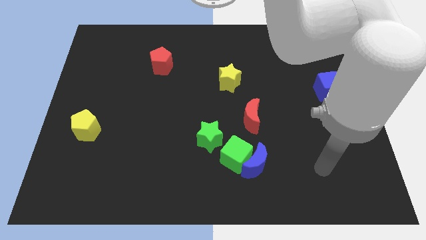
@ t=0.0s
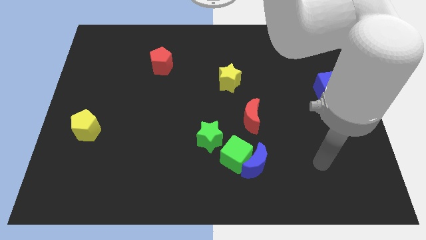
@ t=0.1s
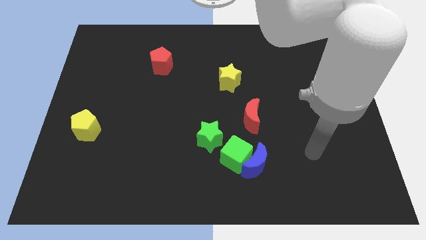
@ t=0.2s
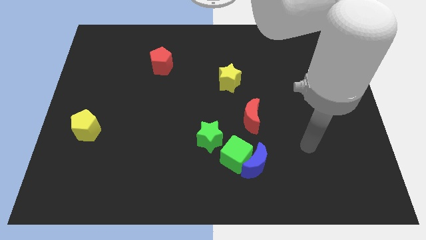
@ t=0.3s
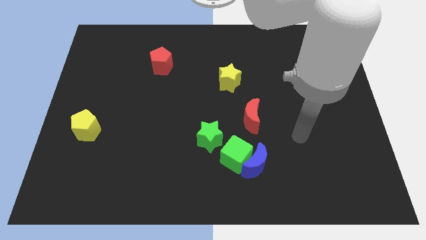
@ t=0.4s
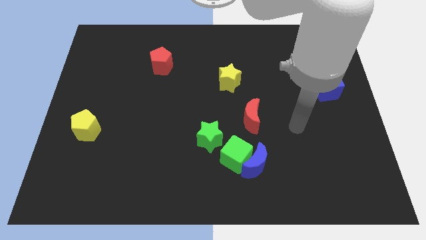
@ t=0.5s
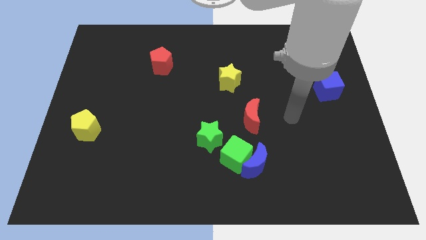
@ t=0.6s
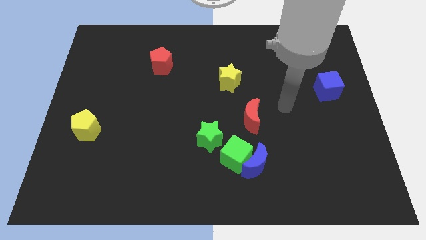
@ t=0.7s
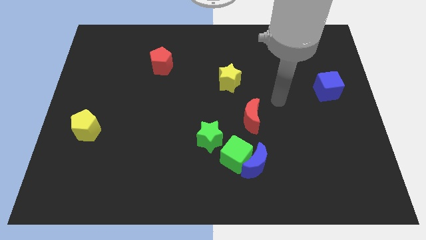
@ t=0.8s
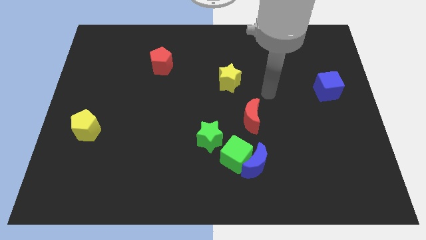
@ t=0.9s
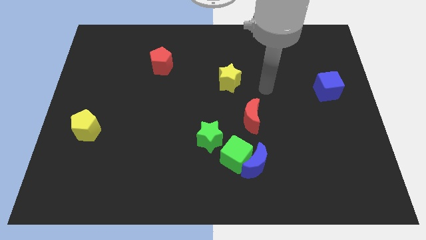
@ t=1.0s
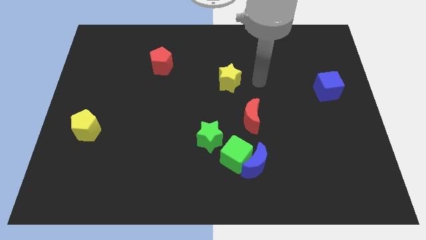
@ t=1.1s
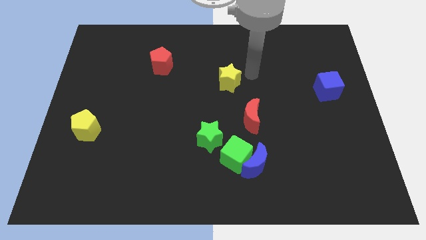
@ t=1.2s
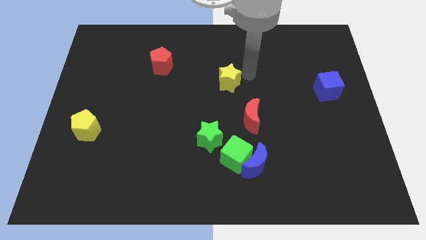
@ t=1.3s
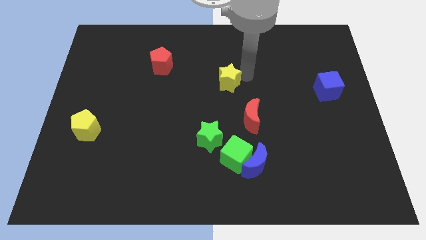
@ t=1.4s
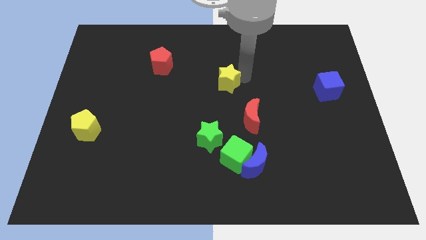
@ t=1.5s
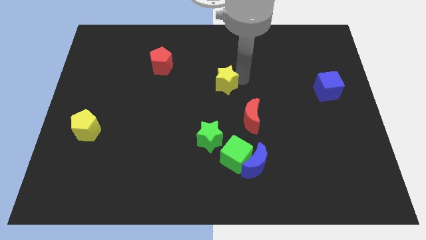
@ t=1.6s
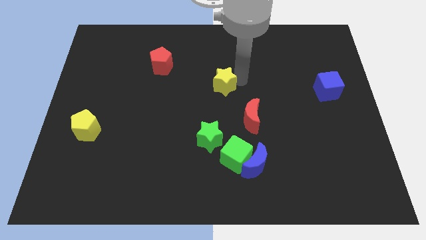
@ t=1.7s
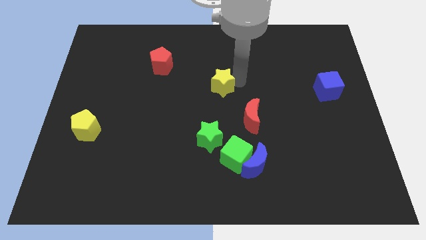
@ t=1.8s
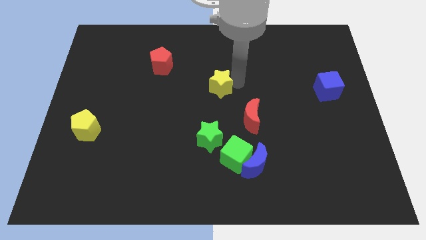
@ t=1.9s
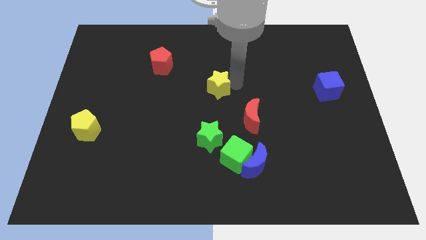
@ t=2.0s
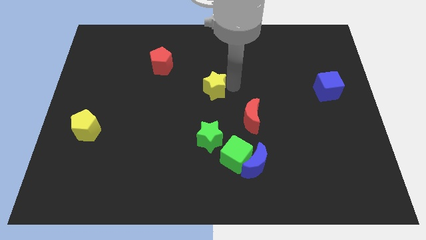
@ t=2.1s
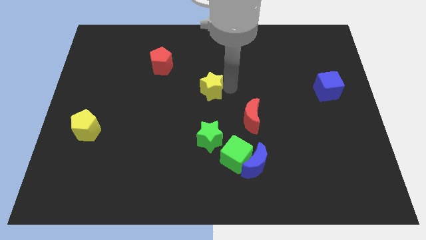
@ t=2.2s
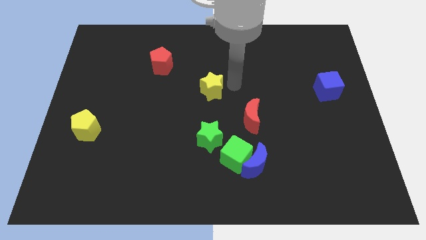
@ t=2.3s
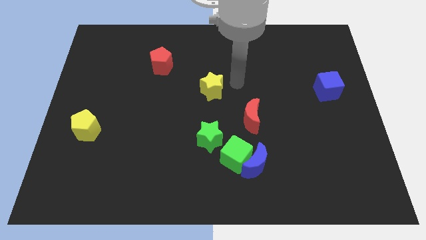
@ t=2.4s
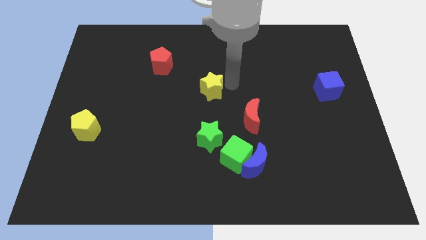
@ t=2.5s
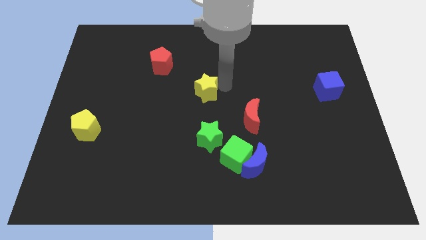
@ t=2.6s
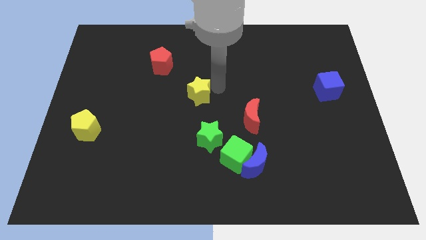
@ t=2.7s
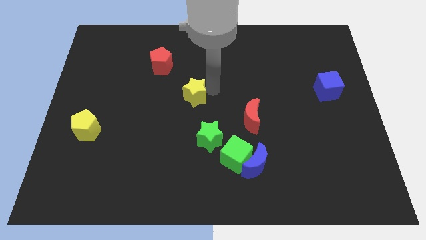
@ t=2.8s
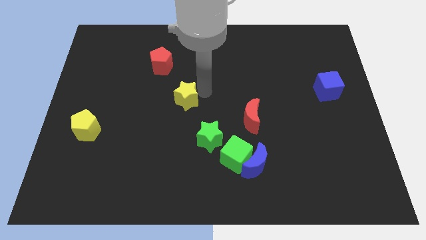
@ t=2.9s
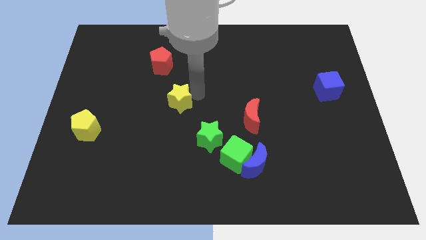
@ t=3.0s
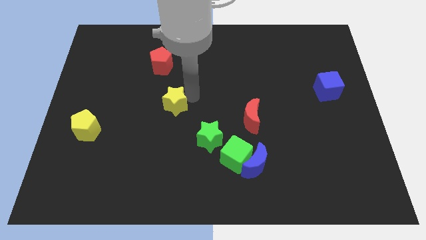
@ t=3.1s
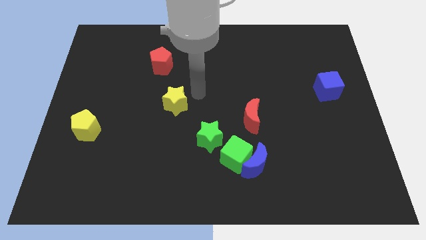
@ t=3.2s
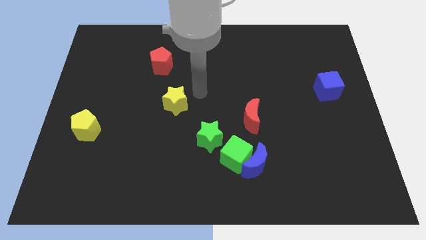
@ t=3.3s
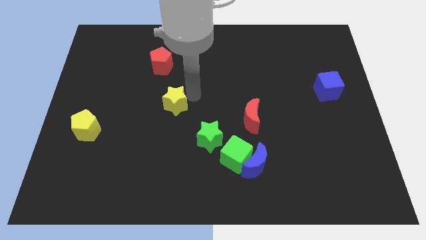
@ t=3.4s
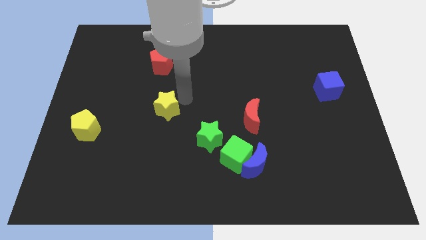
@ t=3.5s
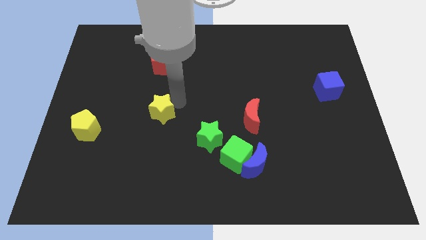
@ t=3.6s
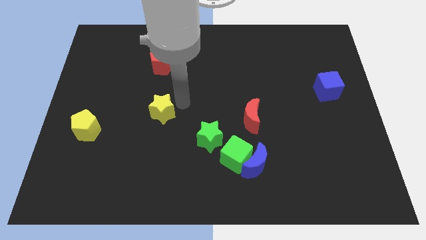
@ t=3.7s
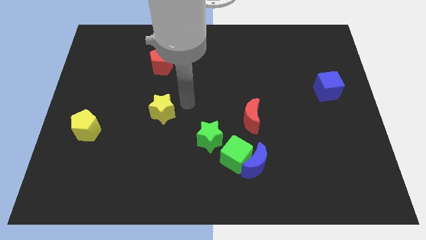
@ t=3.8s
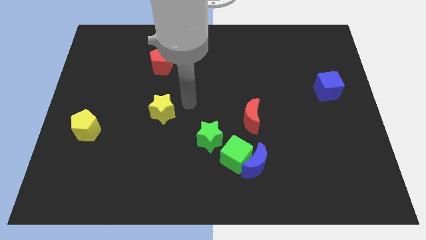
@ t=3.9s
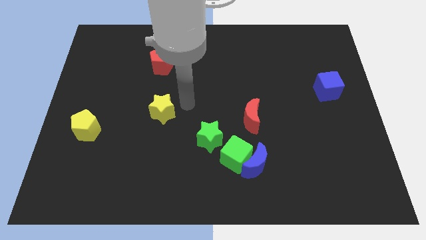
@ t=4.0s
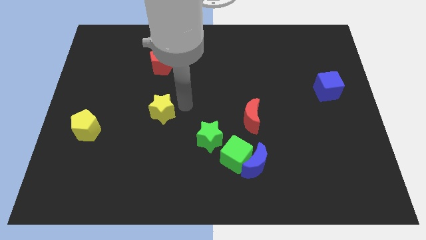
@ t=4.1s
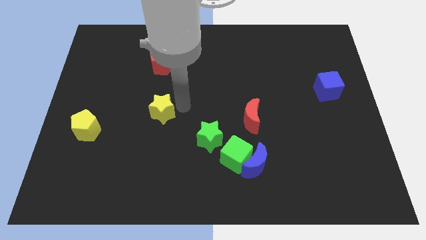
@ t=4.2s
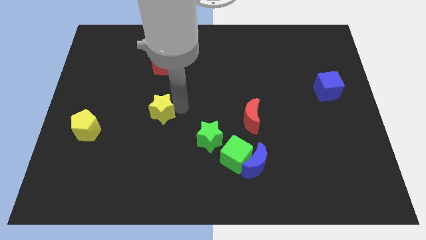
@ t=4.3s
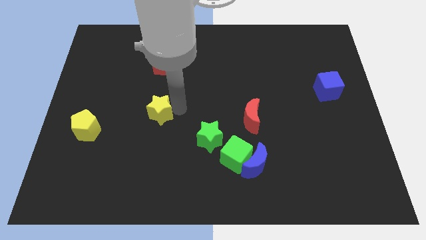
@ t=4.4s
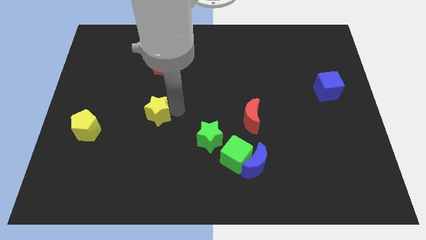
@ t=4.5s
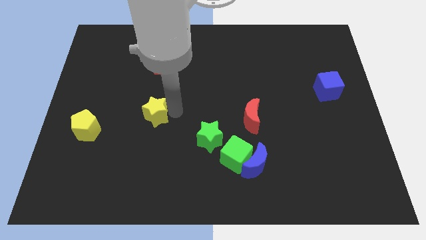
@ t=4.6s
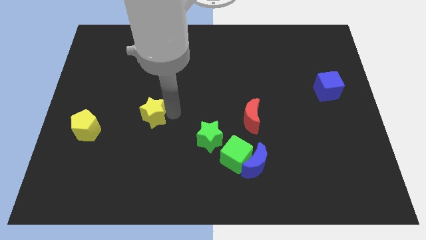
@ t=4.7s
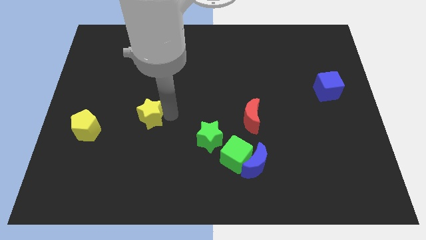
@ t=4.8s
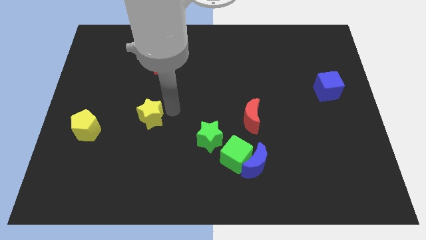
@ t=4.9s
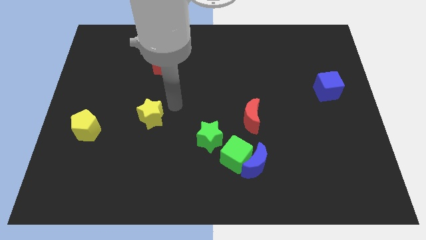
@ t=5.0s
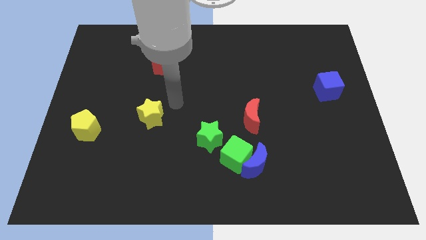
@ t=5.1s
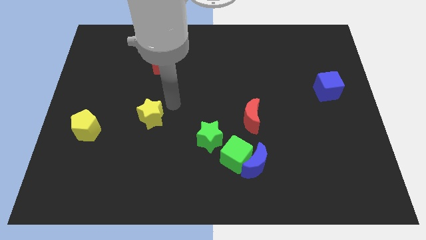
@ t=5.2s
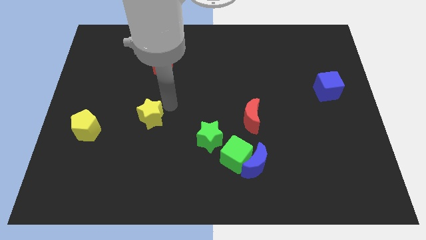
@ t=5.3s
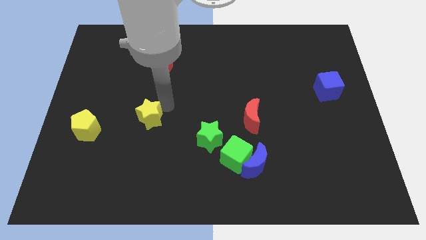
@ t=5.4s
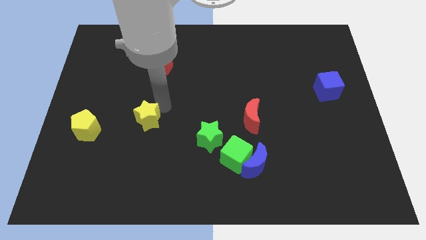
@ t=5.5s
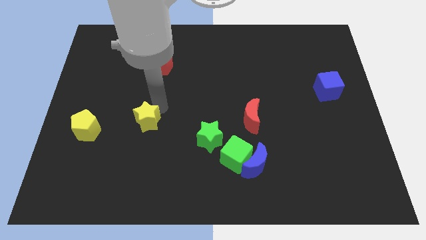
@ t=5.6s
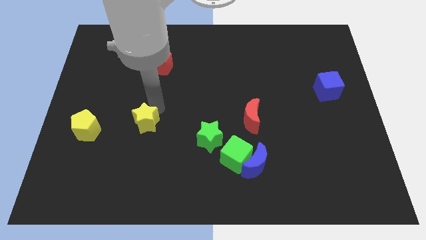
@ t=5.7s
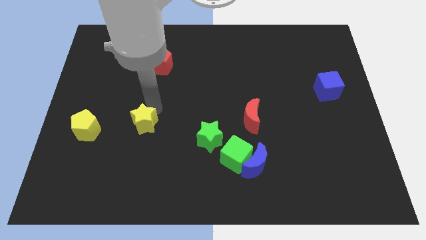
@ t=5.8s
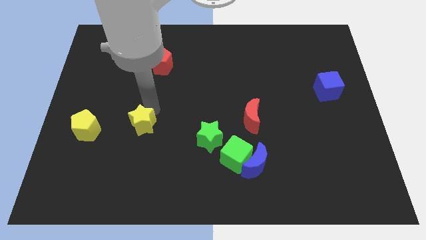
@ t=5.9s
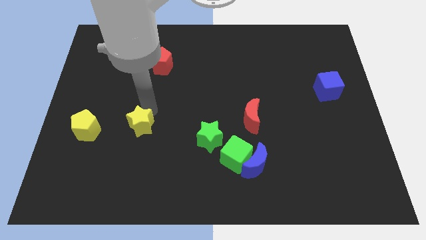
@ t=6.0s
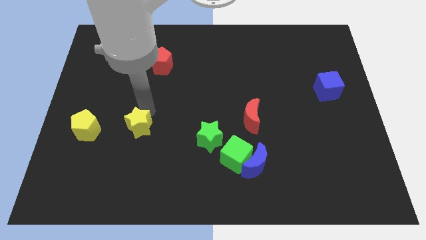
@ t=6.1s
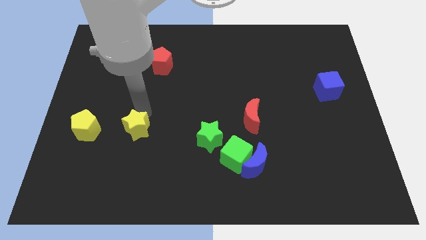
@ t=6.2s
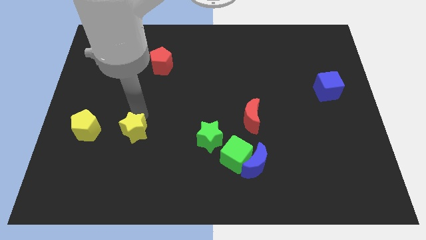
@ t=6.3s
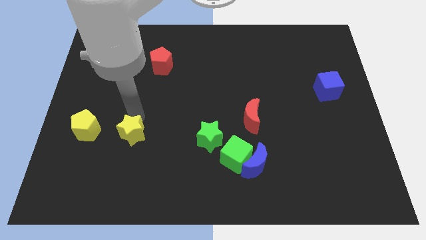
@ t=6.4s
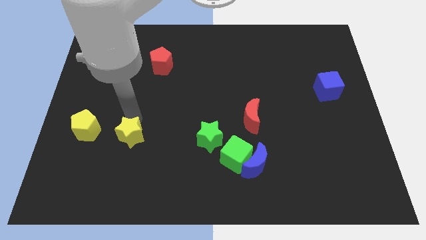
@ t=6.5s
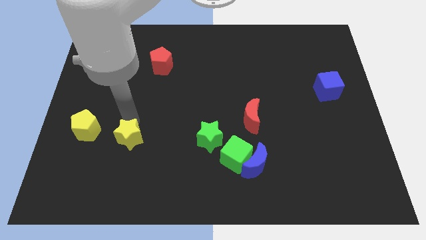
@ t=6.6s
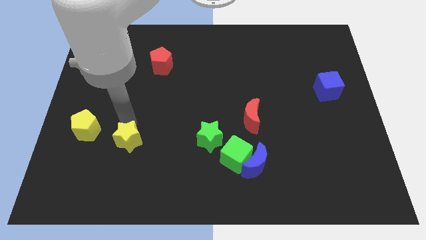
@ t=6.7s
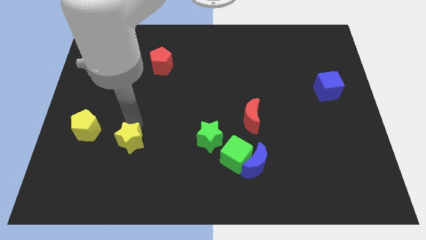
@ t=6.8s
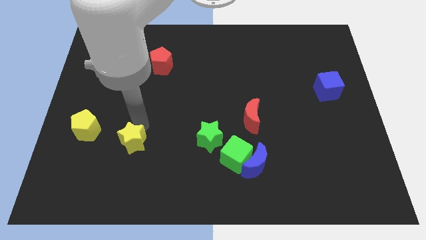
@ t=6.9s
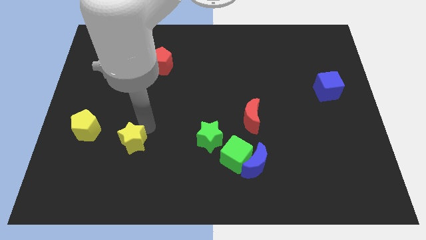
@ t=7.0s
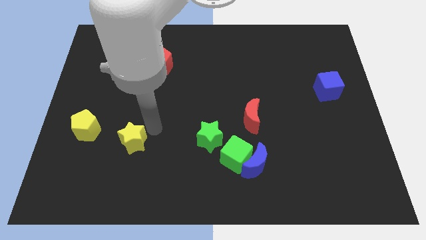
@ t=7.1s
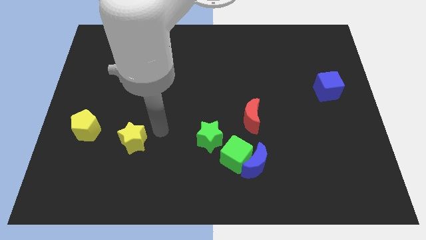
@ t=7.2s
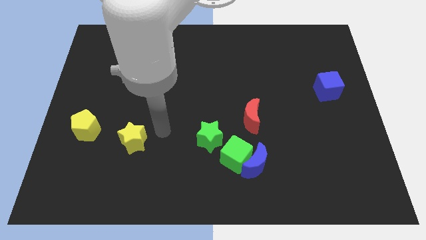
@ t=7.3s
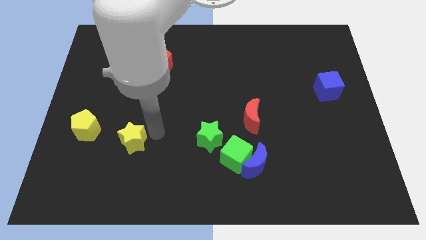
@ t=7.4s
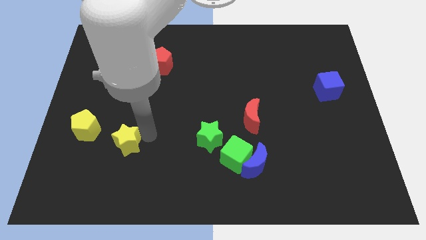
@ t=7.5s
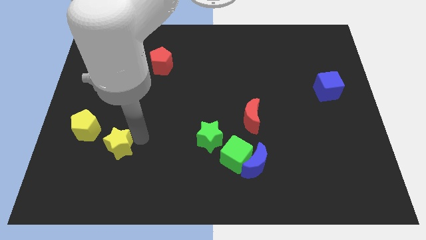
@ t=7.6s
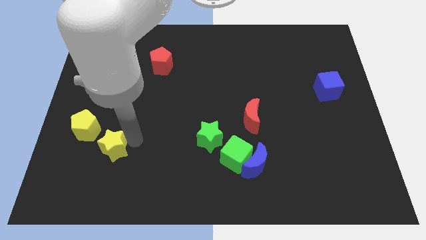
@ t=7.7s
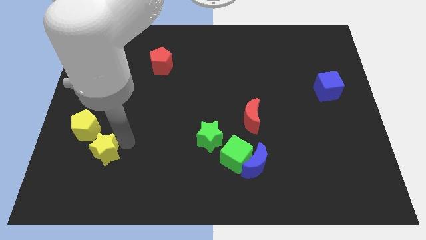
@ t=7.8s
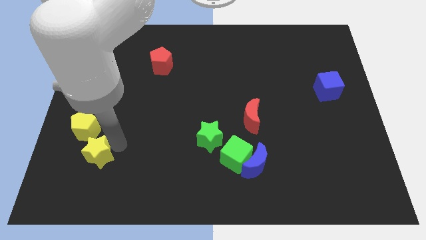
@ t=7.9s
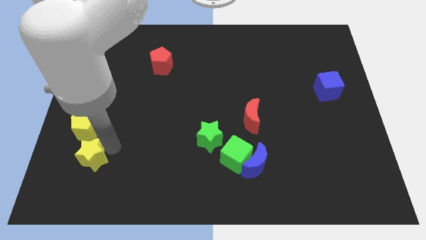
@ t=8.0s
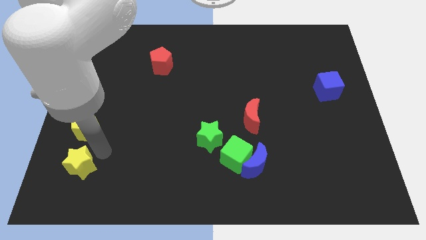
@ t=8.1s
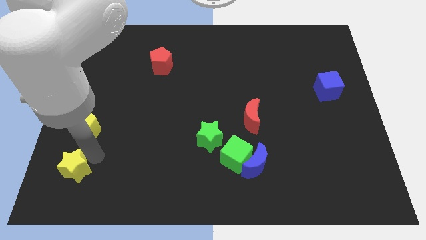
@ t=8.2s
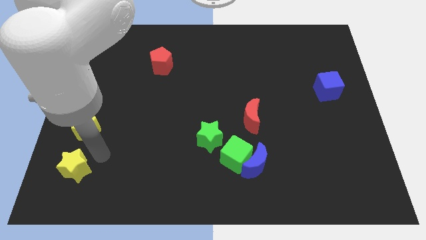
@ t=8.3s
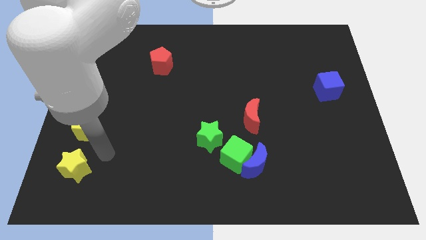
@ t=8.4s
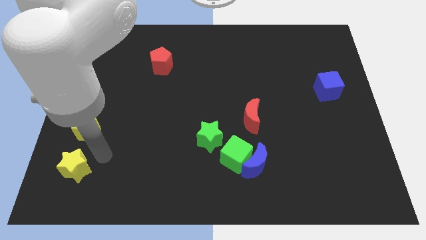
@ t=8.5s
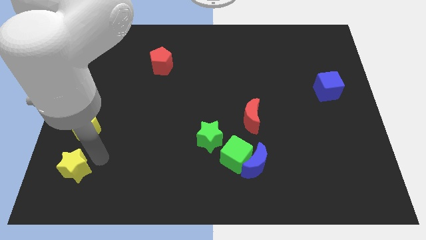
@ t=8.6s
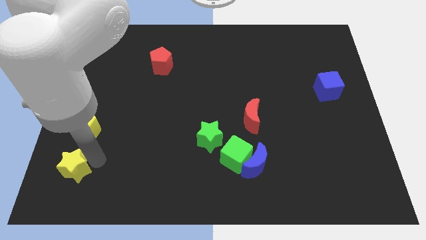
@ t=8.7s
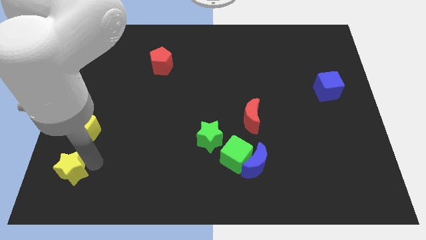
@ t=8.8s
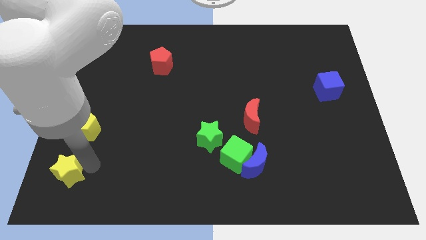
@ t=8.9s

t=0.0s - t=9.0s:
move the yellow star to the bottom left of the board
